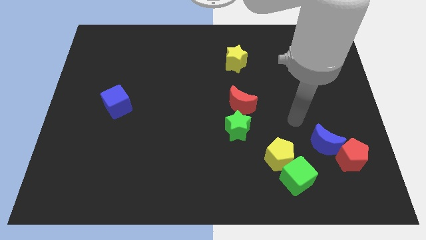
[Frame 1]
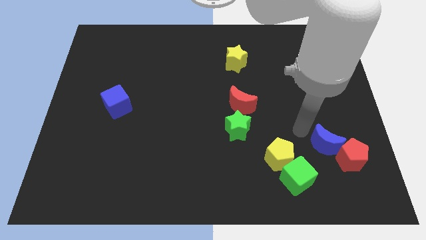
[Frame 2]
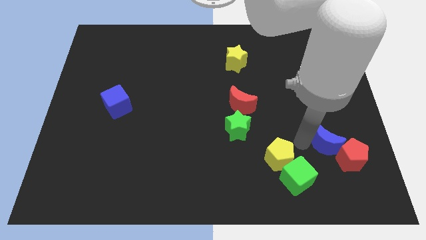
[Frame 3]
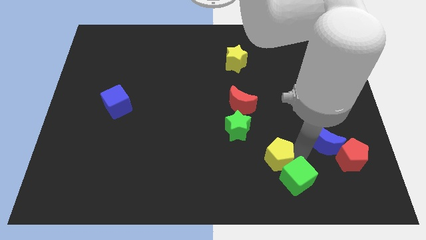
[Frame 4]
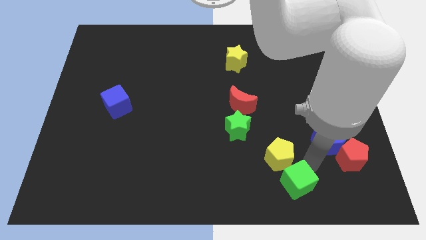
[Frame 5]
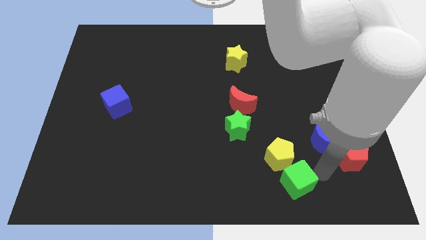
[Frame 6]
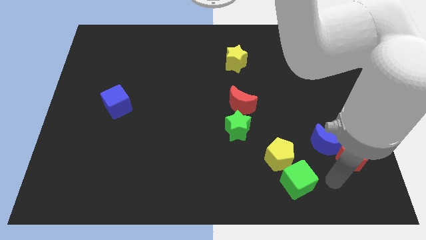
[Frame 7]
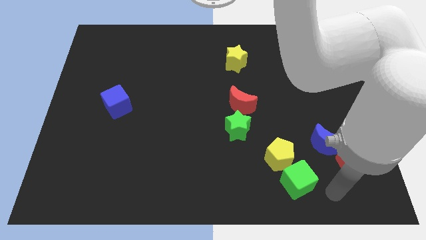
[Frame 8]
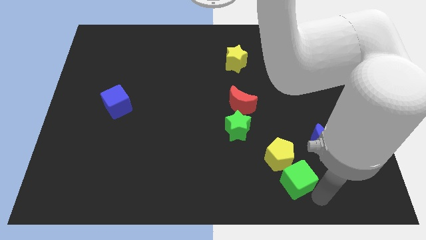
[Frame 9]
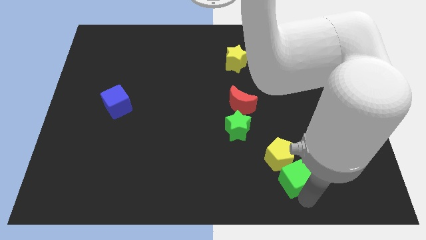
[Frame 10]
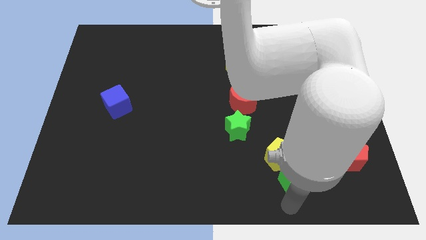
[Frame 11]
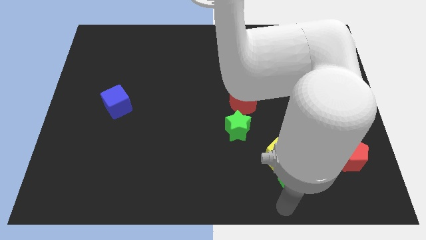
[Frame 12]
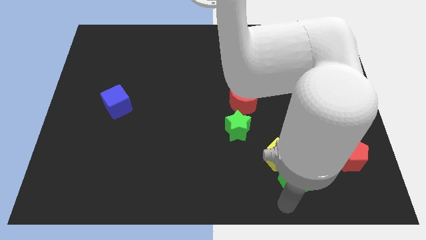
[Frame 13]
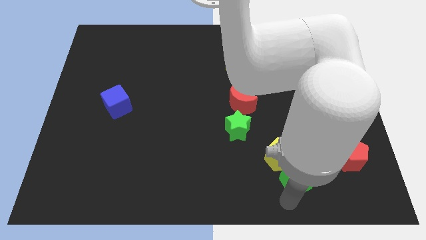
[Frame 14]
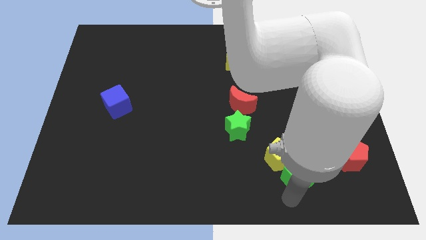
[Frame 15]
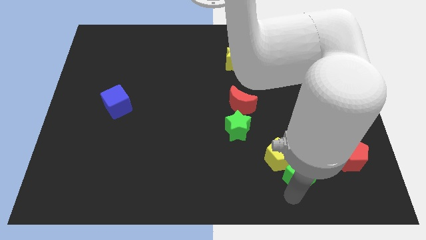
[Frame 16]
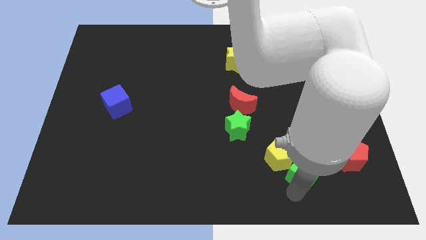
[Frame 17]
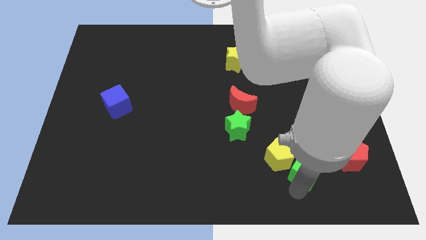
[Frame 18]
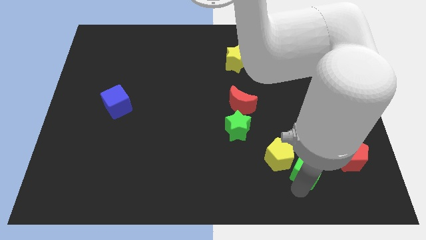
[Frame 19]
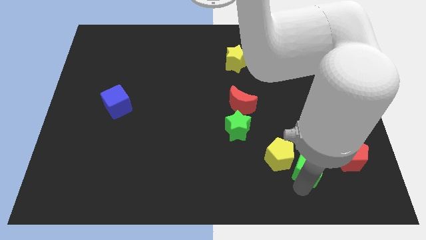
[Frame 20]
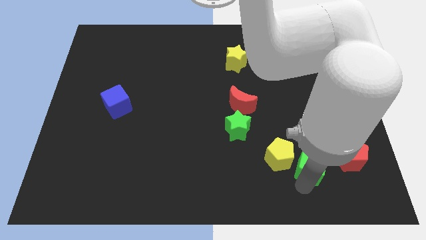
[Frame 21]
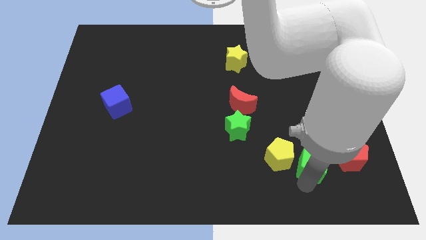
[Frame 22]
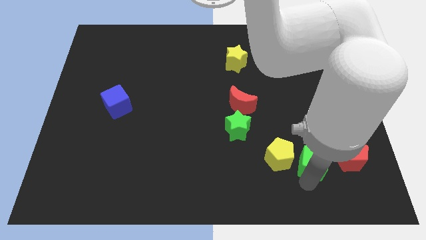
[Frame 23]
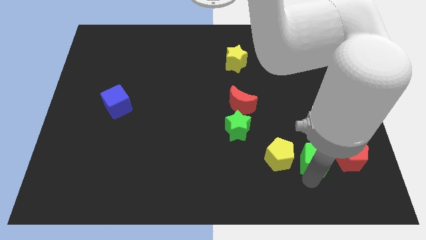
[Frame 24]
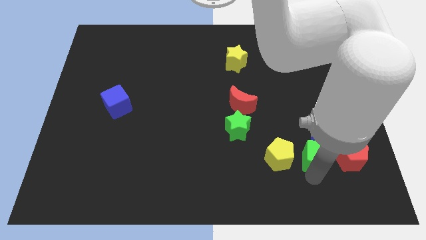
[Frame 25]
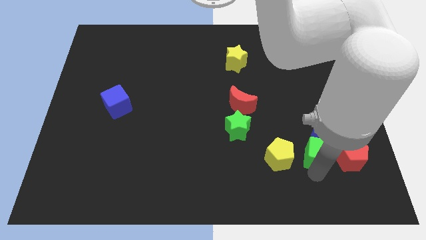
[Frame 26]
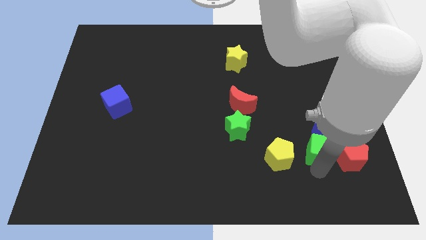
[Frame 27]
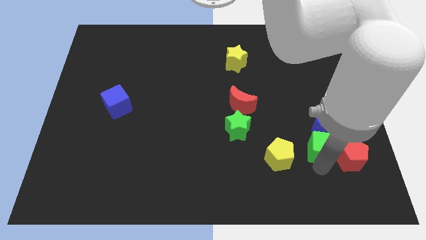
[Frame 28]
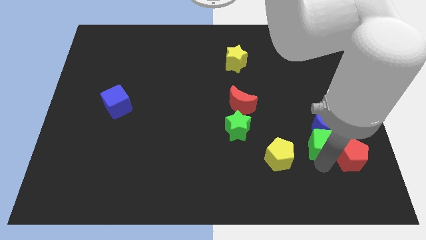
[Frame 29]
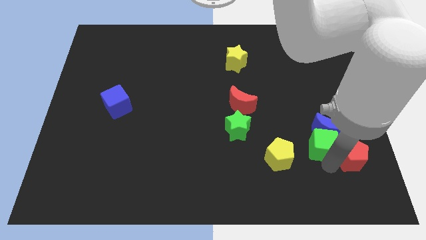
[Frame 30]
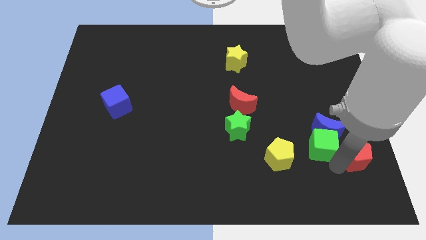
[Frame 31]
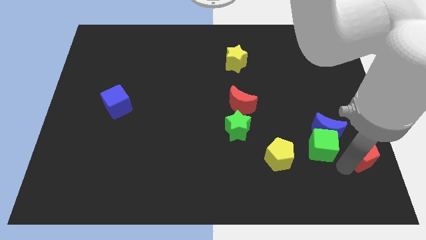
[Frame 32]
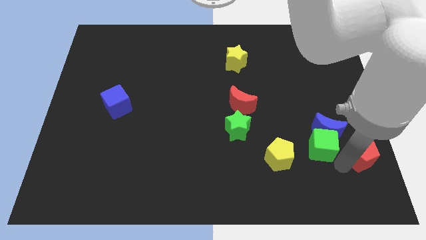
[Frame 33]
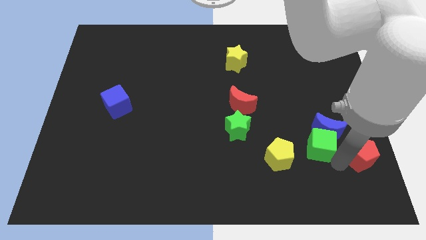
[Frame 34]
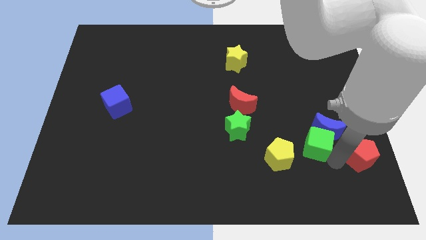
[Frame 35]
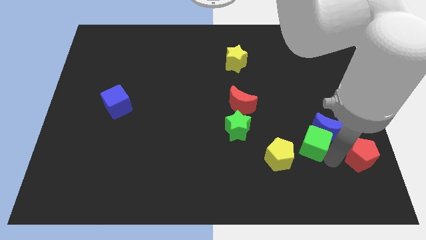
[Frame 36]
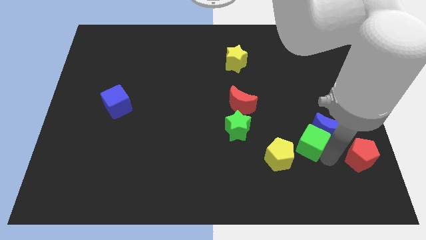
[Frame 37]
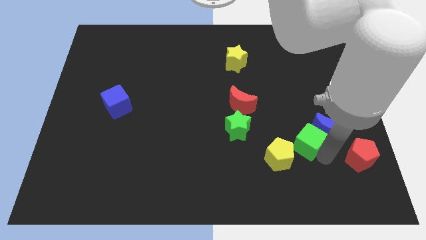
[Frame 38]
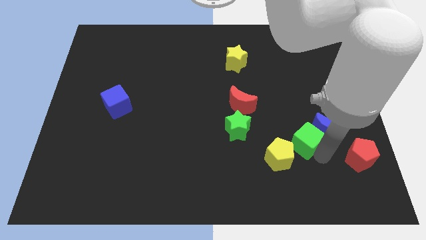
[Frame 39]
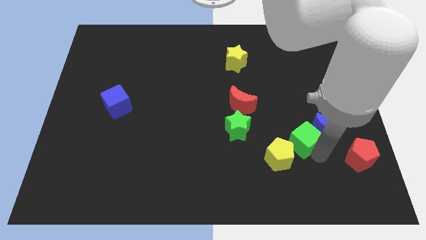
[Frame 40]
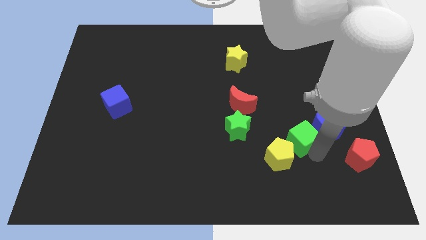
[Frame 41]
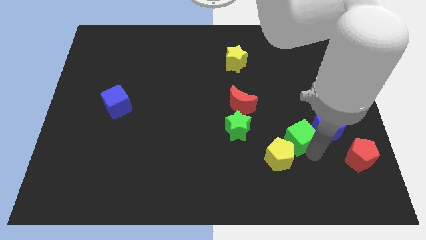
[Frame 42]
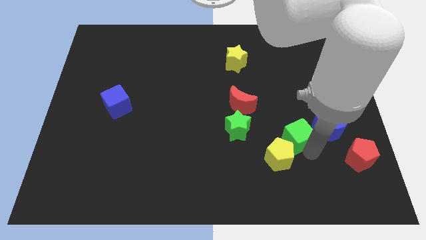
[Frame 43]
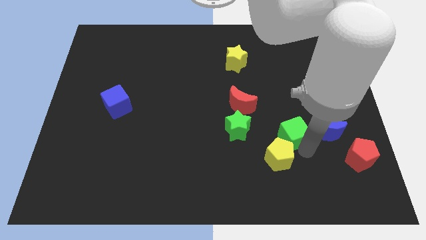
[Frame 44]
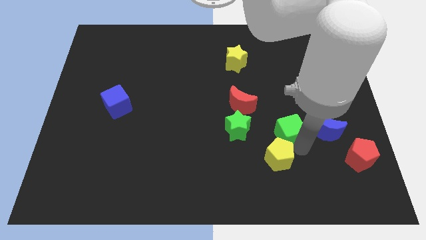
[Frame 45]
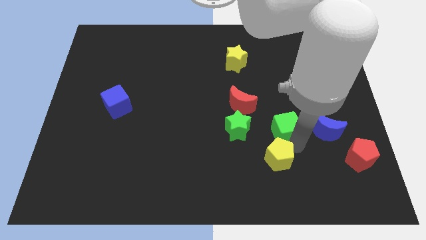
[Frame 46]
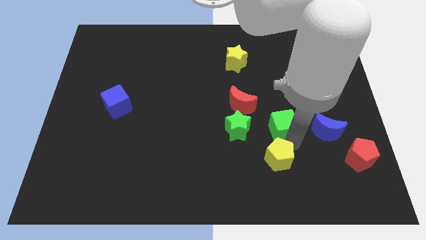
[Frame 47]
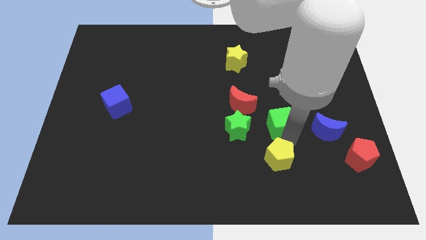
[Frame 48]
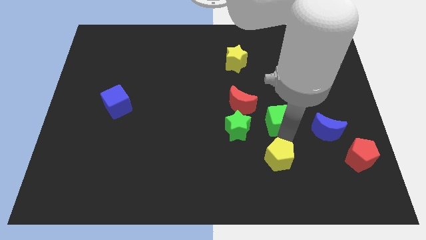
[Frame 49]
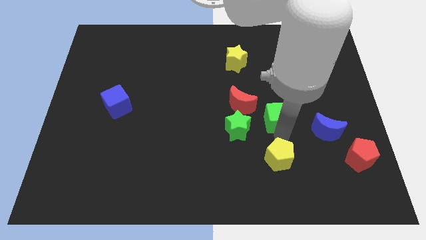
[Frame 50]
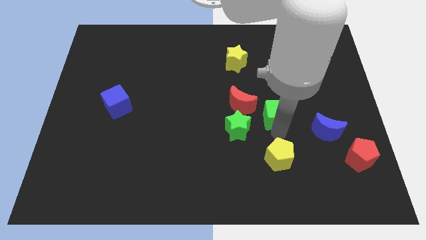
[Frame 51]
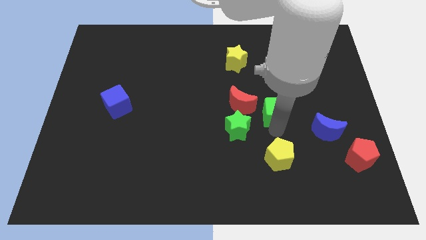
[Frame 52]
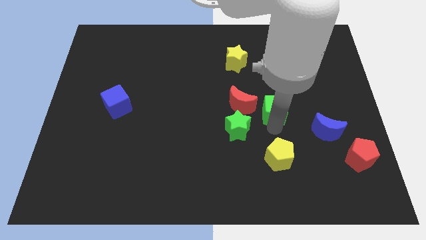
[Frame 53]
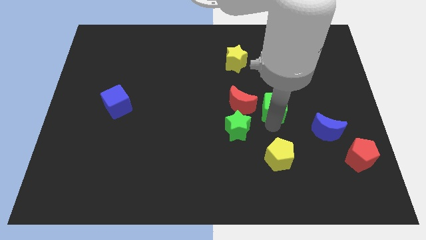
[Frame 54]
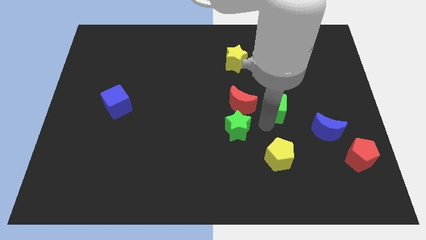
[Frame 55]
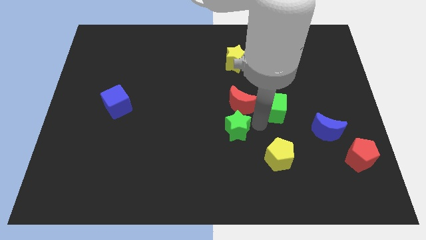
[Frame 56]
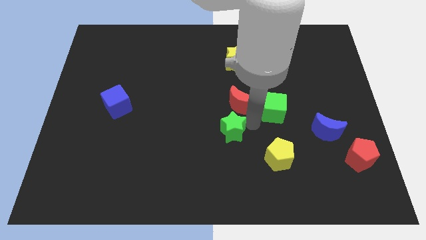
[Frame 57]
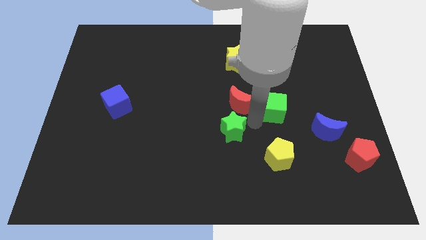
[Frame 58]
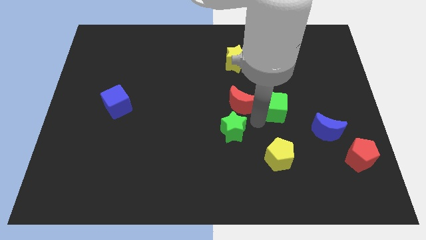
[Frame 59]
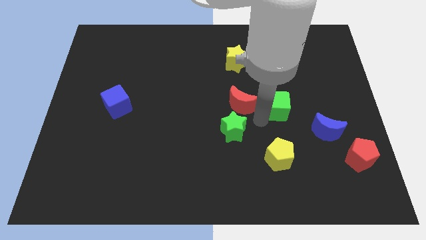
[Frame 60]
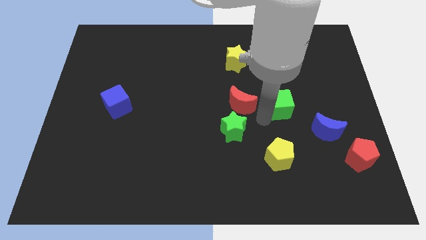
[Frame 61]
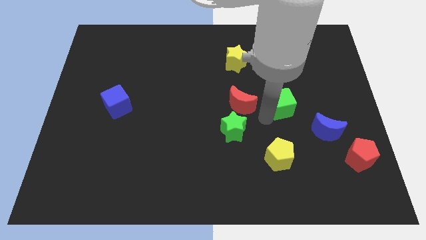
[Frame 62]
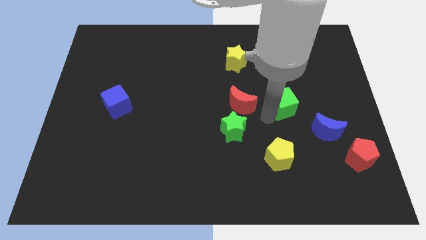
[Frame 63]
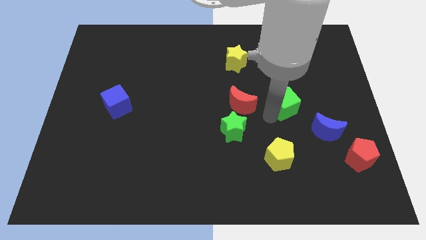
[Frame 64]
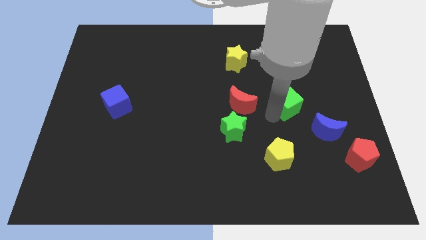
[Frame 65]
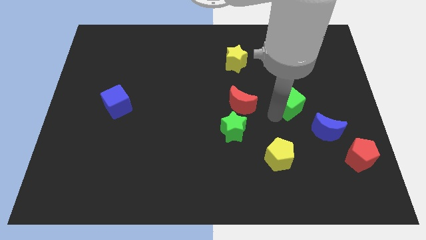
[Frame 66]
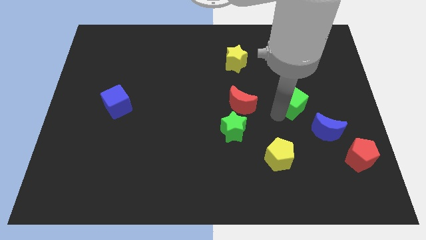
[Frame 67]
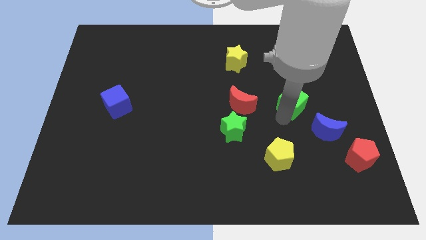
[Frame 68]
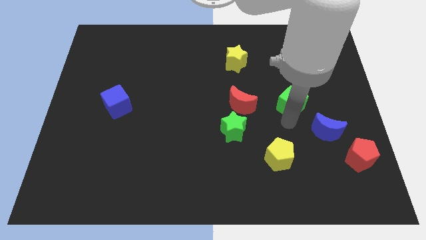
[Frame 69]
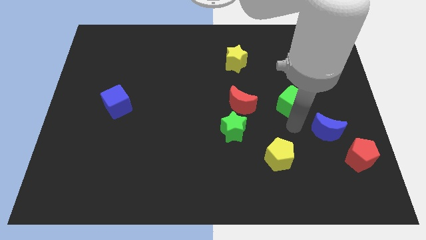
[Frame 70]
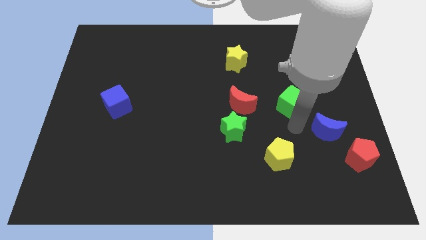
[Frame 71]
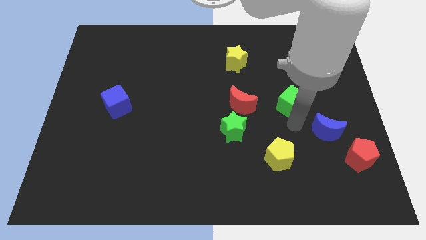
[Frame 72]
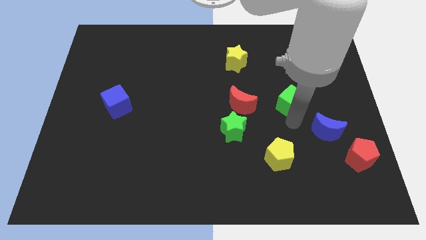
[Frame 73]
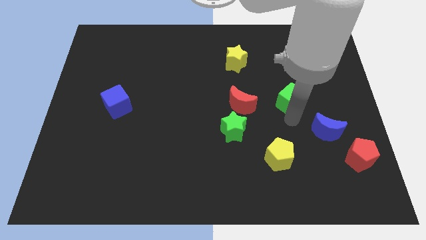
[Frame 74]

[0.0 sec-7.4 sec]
slide the green cube up

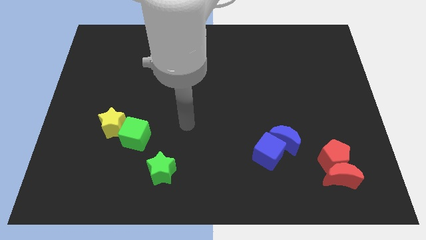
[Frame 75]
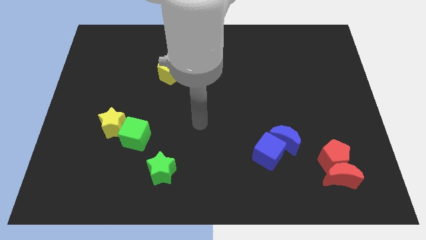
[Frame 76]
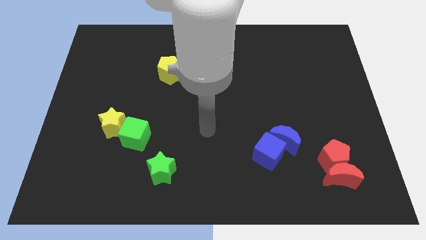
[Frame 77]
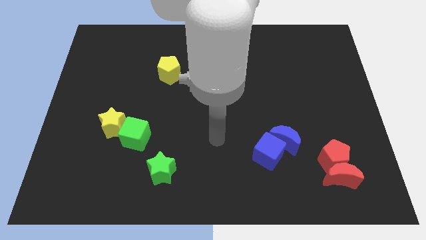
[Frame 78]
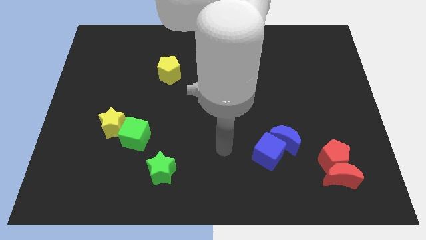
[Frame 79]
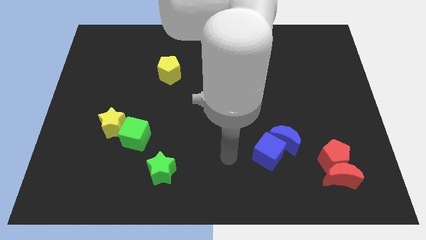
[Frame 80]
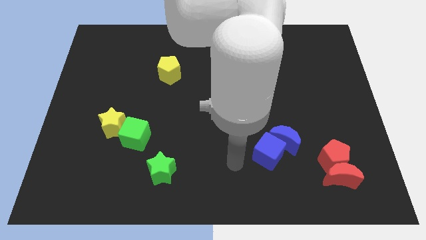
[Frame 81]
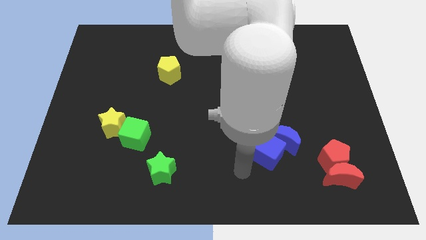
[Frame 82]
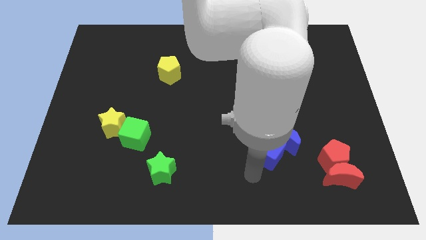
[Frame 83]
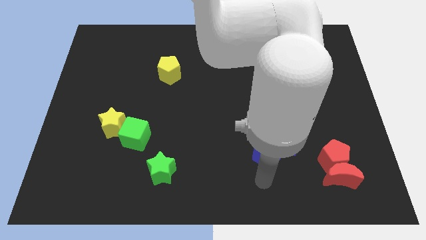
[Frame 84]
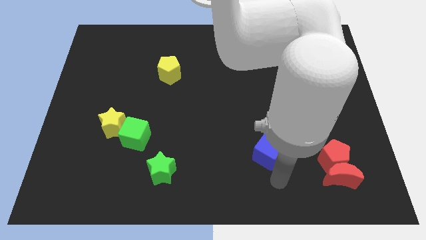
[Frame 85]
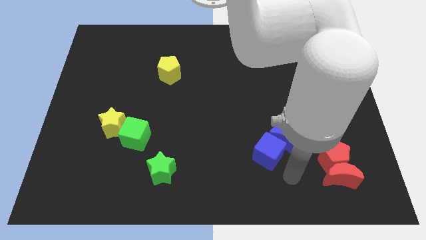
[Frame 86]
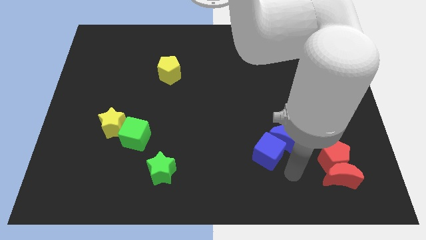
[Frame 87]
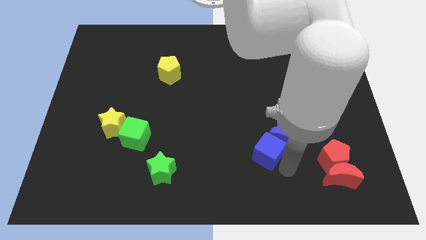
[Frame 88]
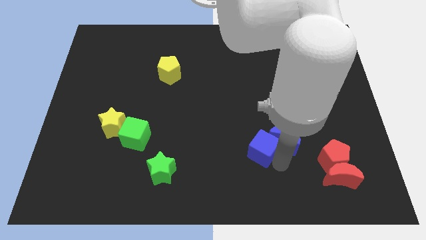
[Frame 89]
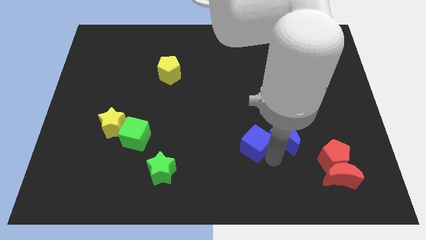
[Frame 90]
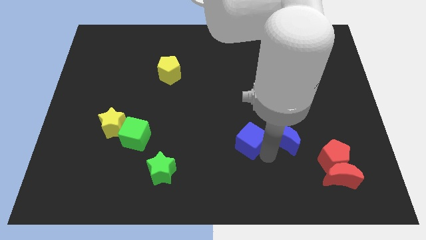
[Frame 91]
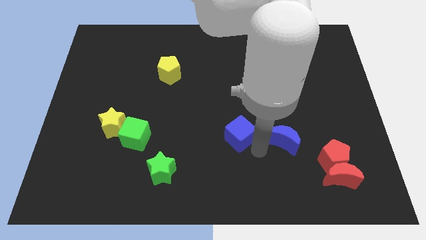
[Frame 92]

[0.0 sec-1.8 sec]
push the blue cube up and to the left somewhat
